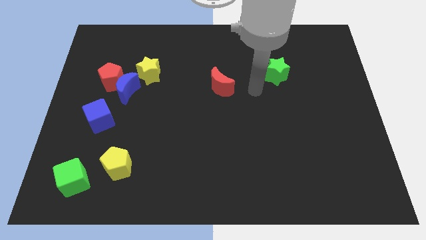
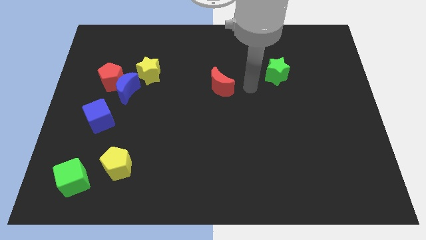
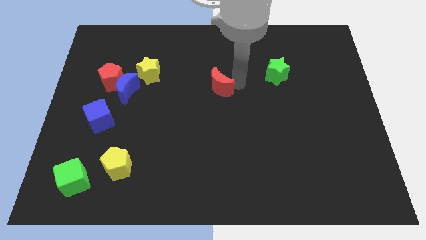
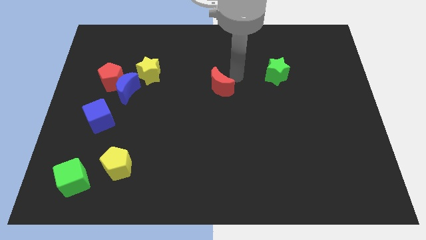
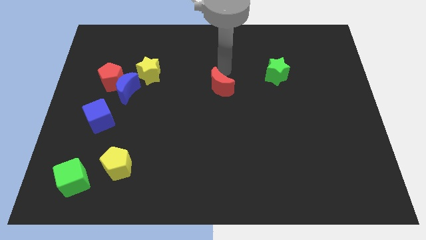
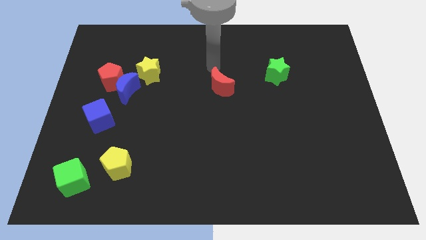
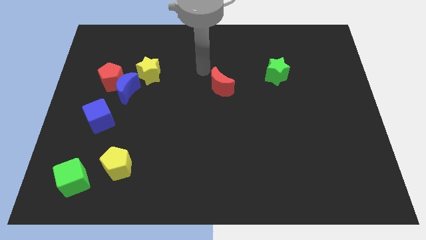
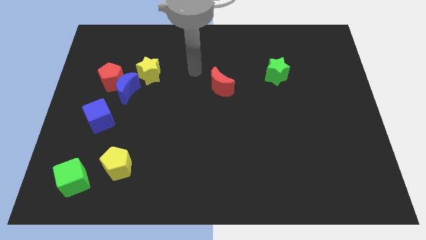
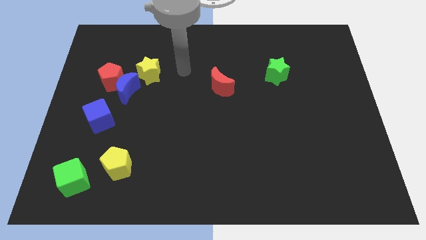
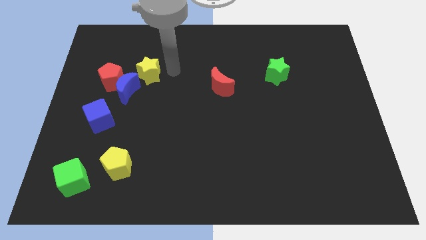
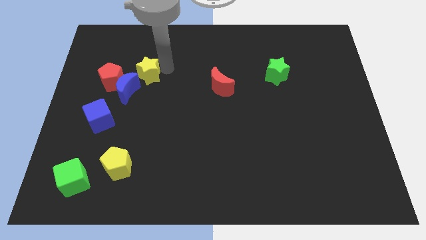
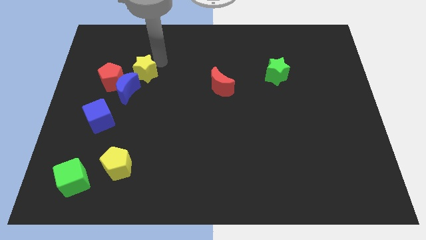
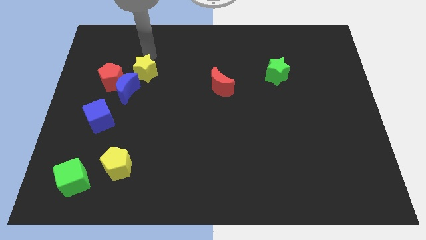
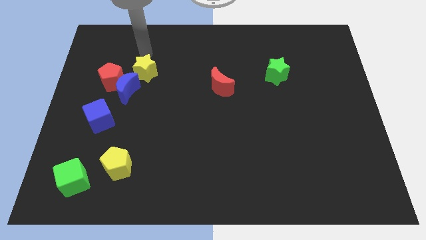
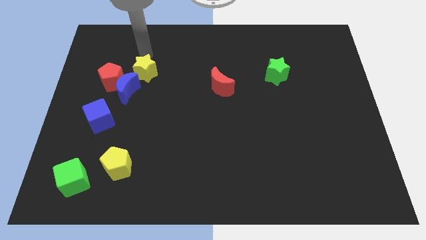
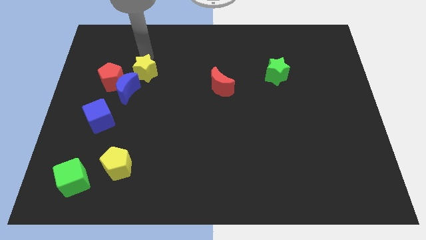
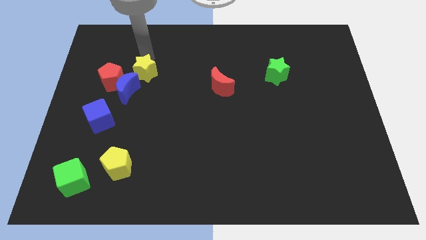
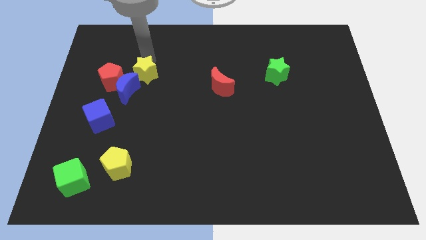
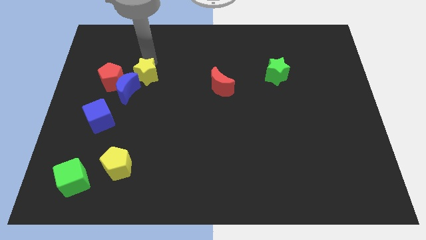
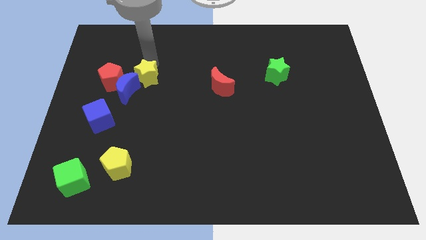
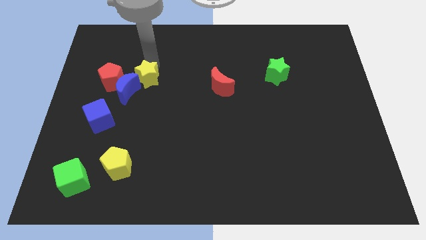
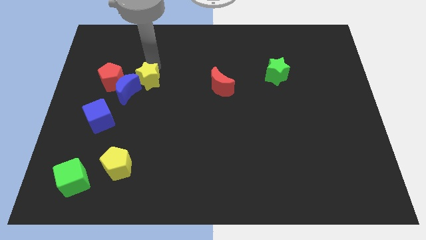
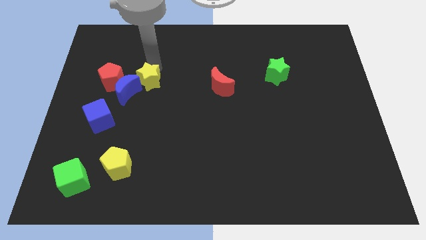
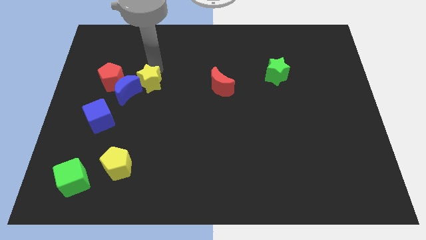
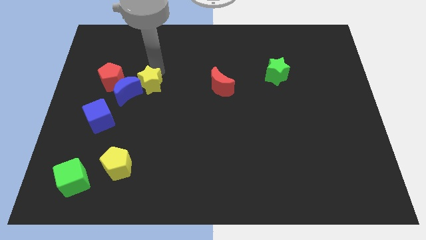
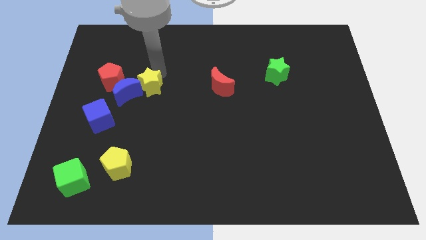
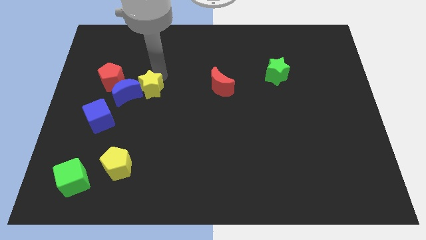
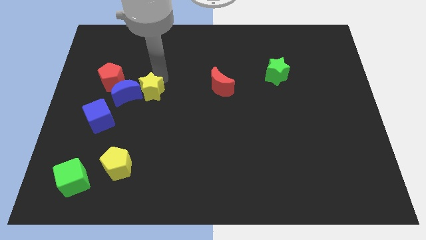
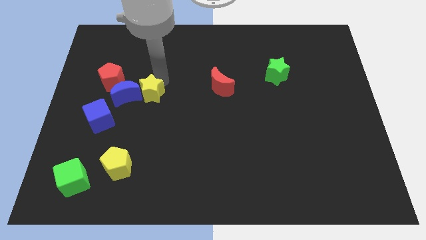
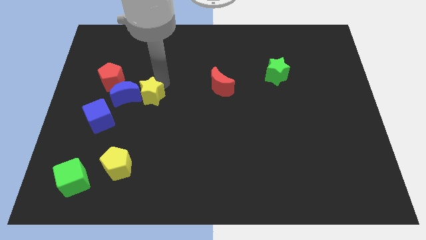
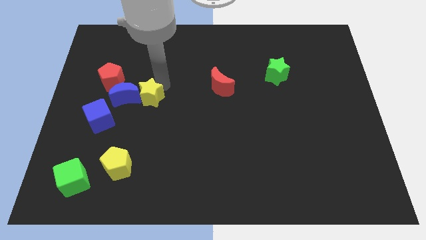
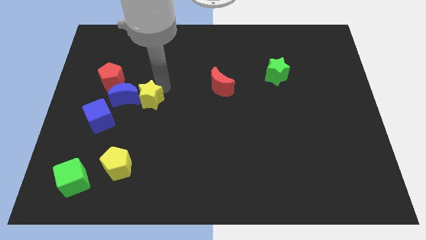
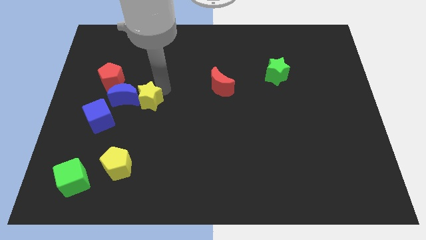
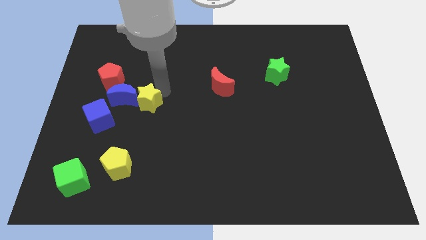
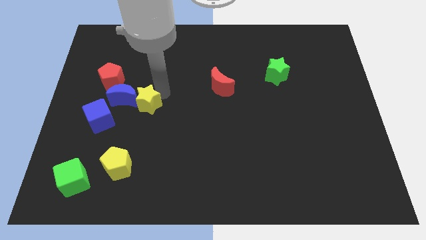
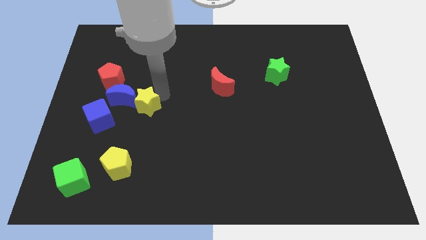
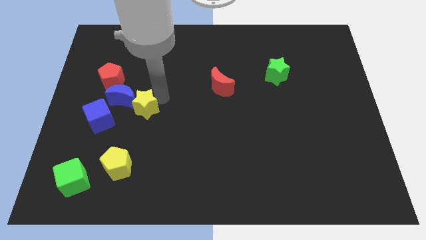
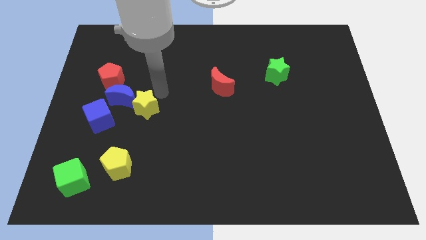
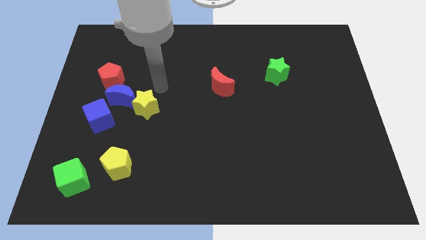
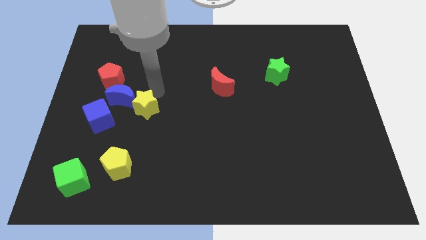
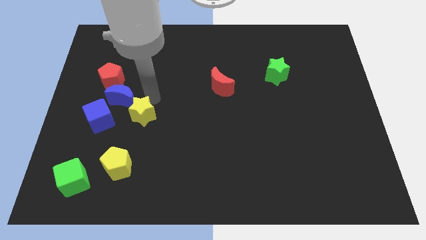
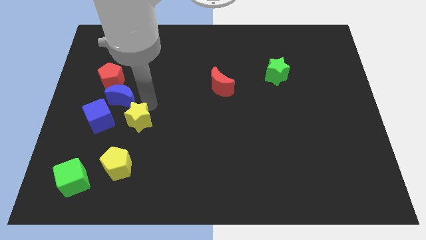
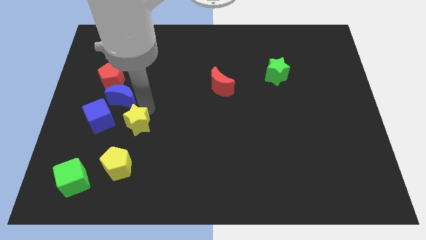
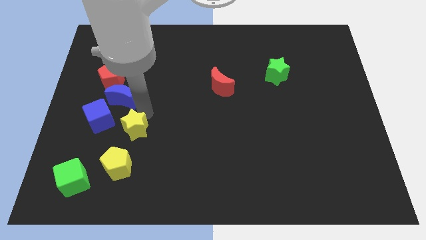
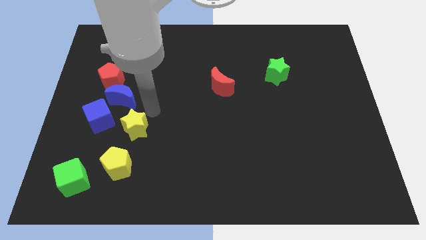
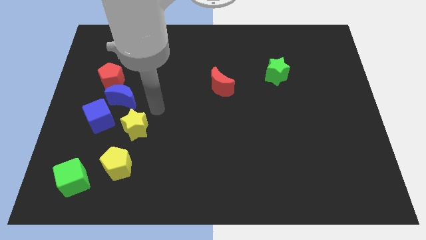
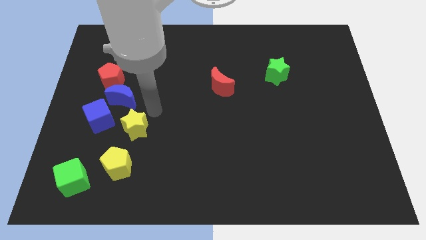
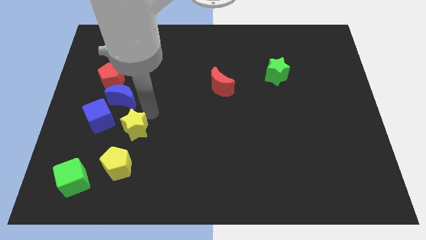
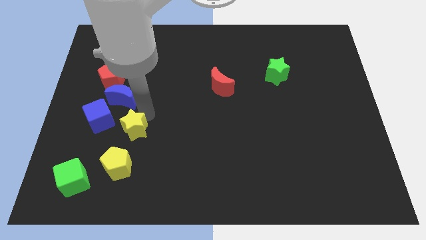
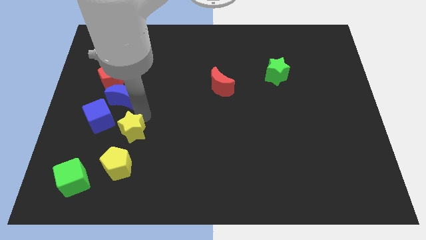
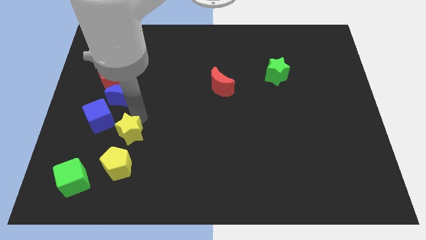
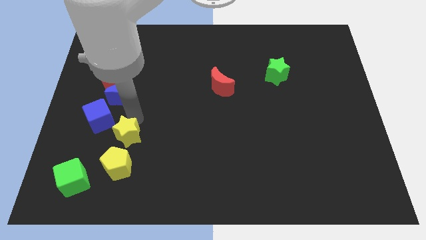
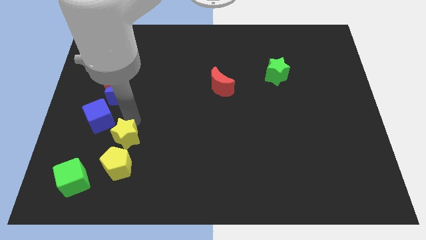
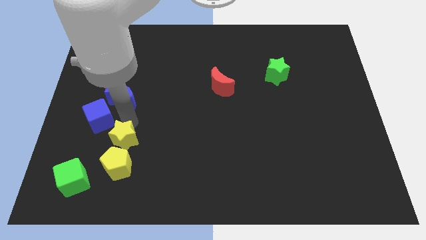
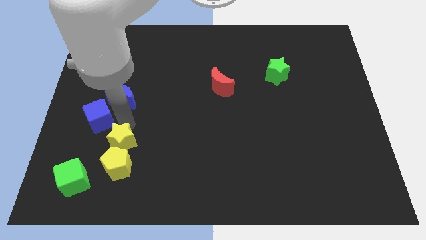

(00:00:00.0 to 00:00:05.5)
move the yellow star to the top right of the green cube

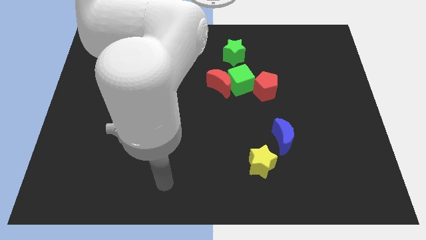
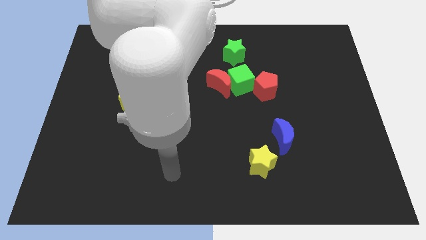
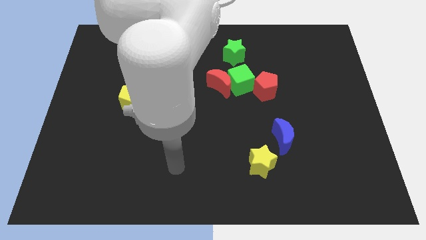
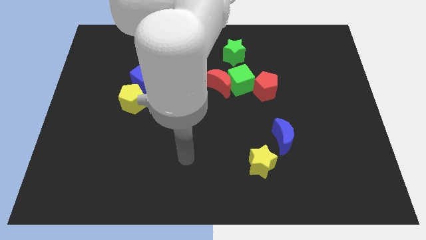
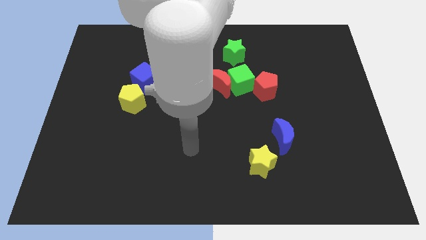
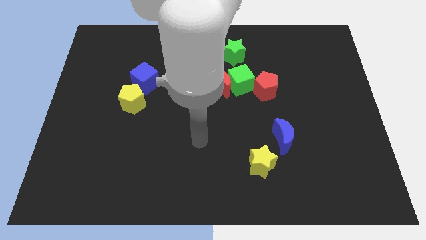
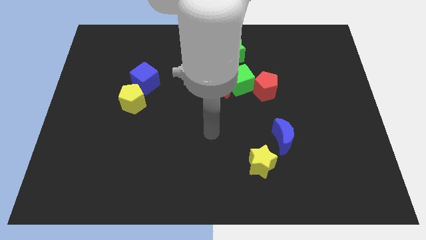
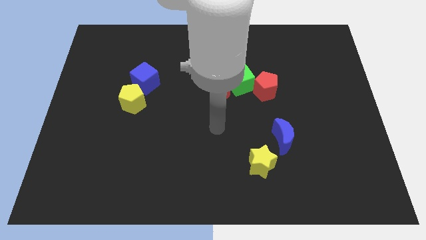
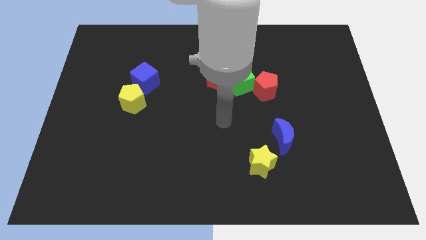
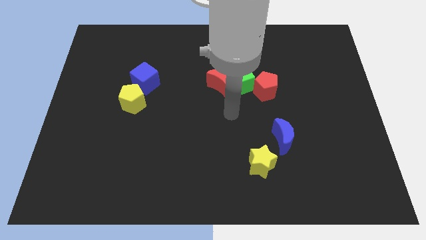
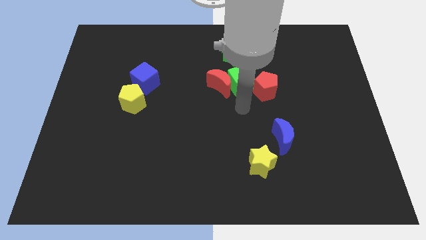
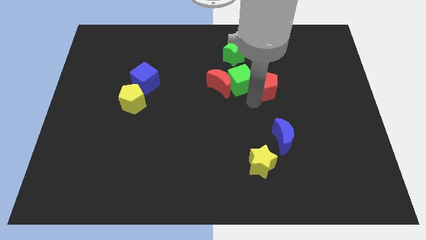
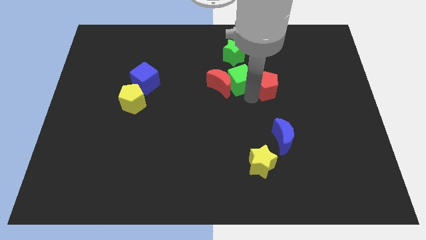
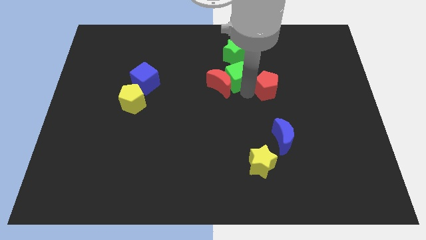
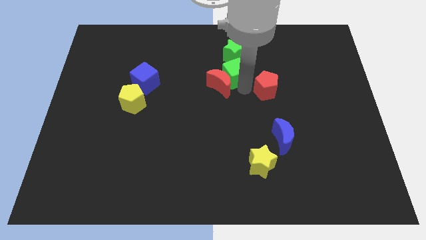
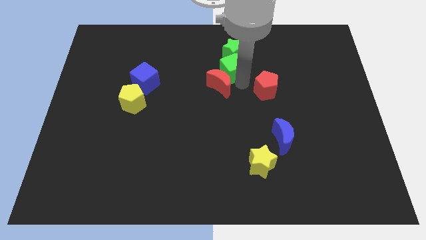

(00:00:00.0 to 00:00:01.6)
put the green cube diagonally down and to the left of the green star

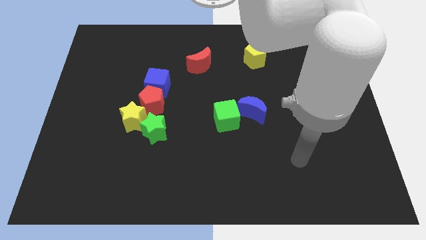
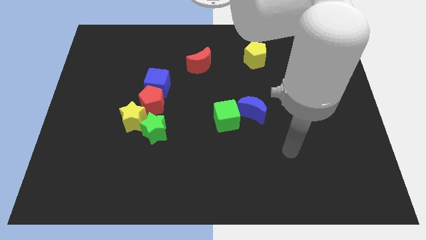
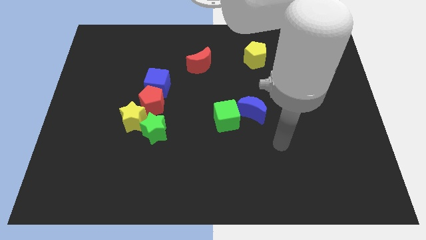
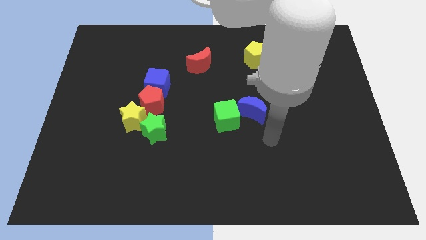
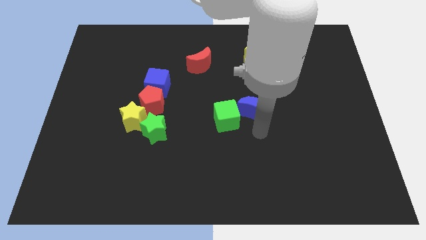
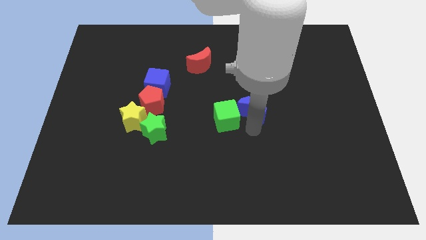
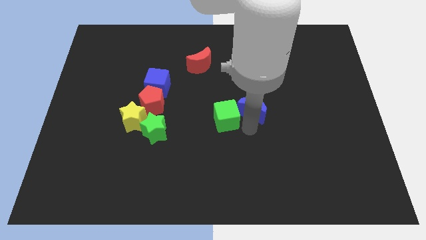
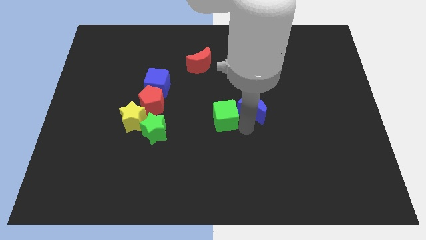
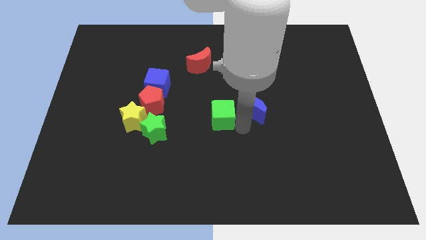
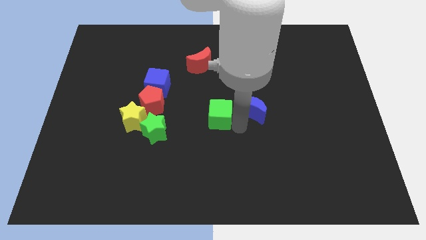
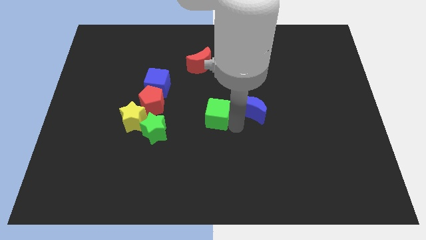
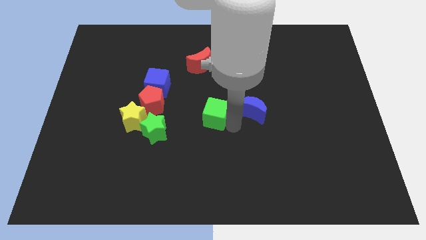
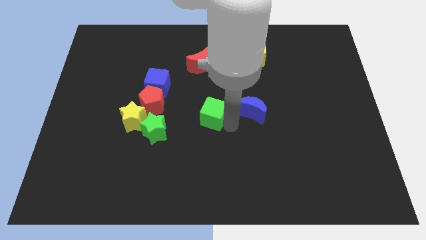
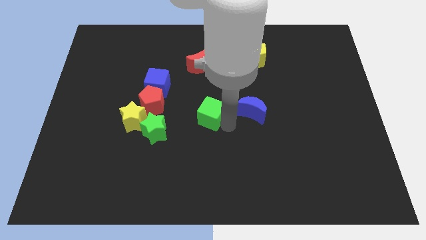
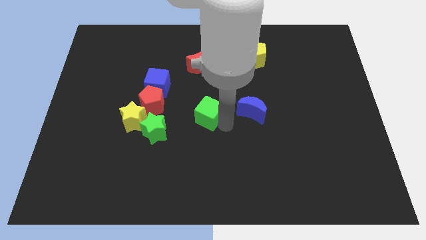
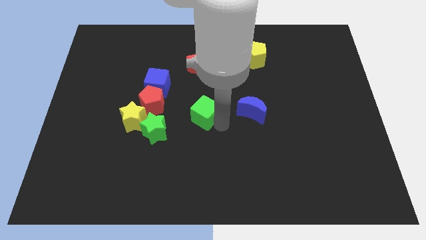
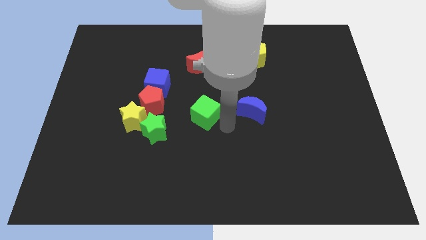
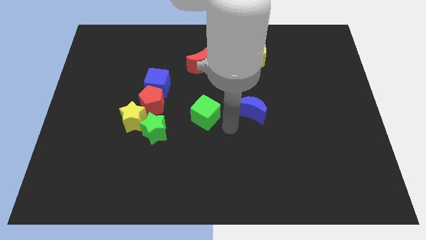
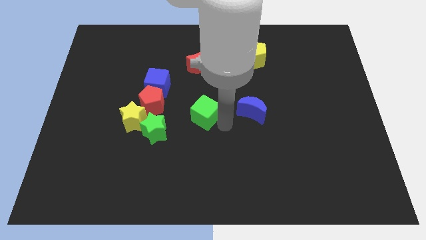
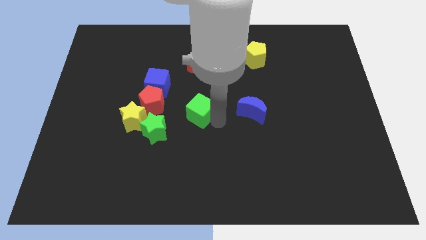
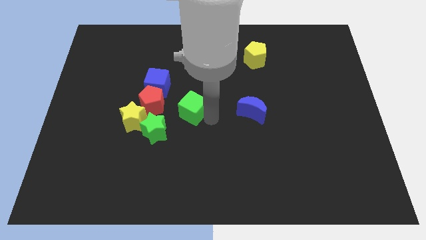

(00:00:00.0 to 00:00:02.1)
push the green cube to the bottom right side of the blue cube
